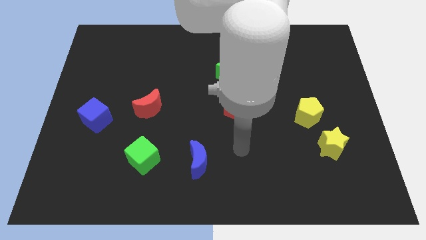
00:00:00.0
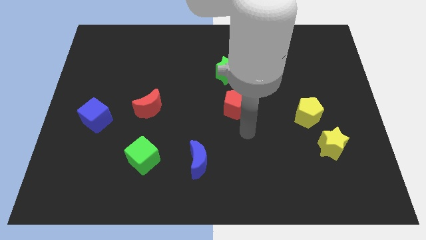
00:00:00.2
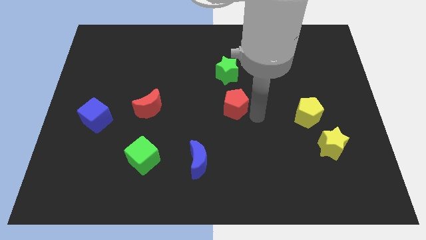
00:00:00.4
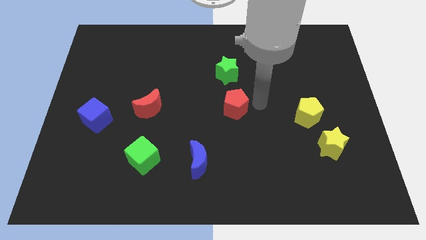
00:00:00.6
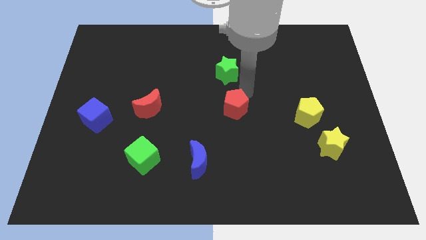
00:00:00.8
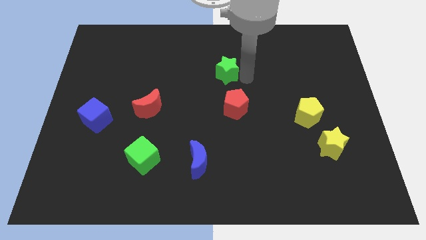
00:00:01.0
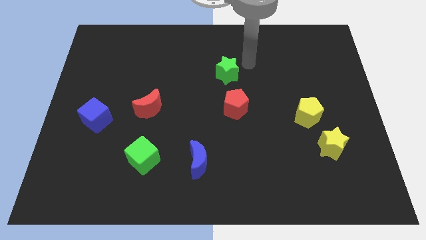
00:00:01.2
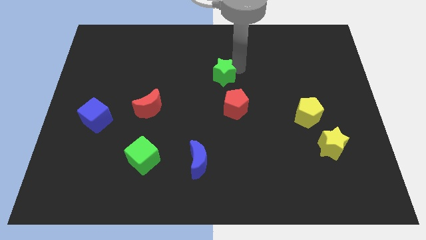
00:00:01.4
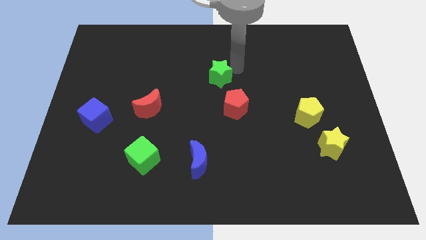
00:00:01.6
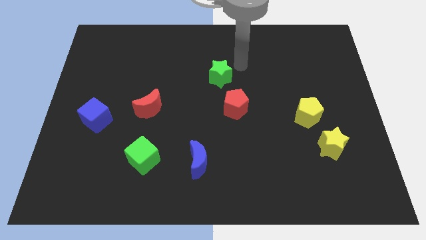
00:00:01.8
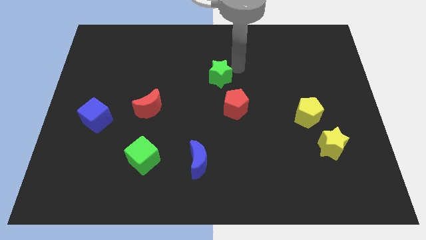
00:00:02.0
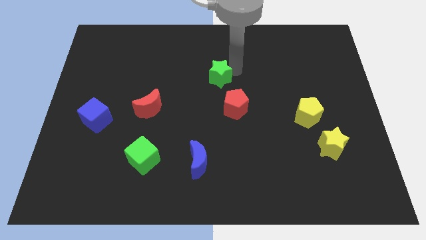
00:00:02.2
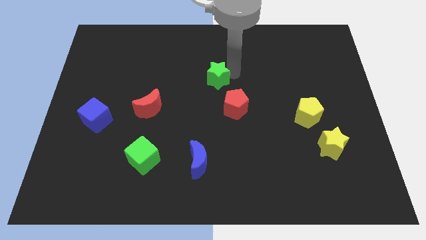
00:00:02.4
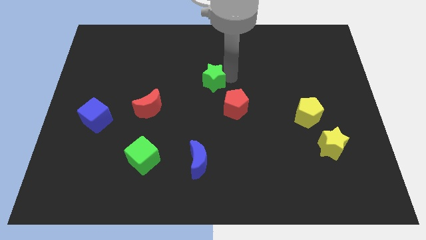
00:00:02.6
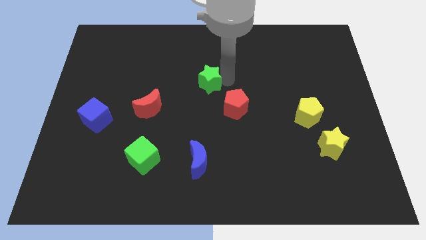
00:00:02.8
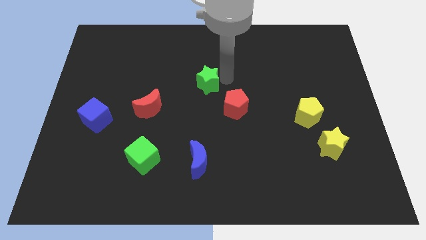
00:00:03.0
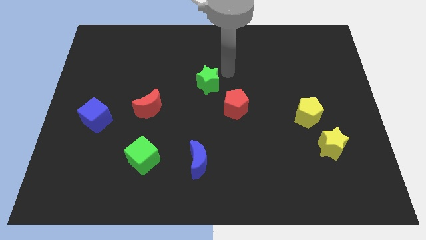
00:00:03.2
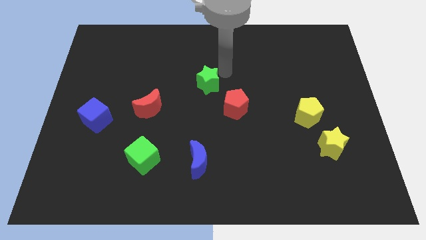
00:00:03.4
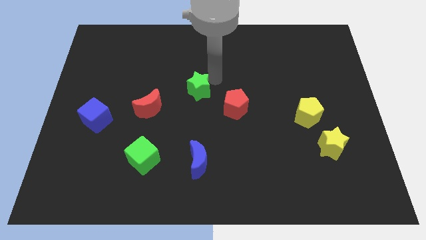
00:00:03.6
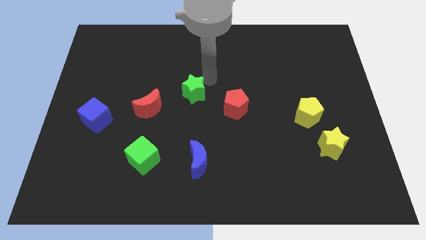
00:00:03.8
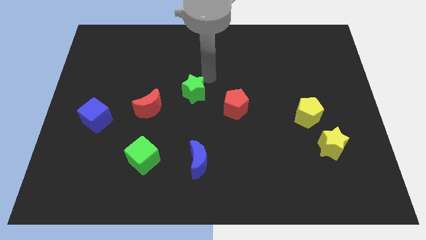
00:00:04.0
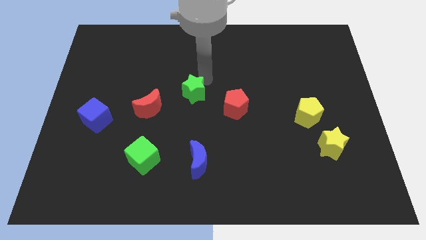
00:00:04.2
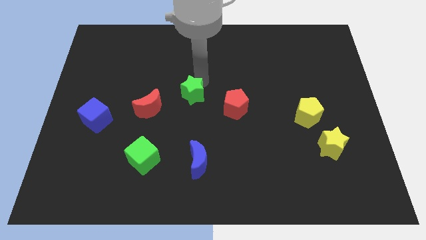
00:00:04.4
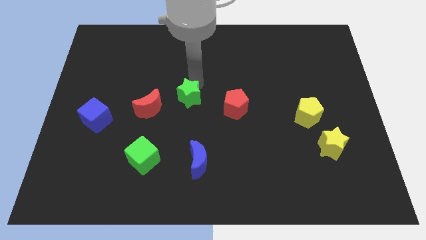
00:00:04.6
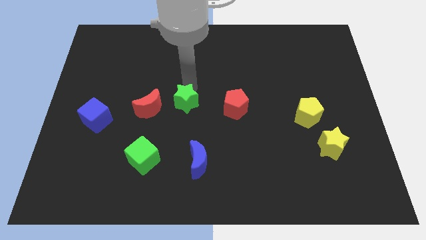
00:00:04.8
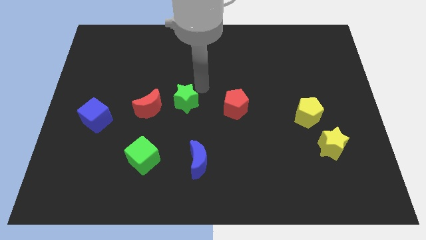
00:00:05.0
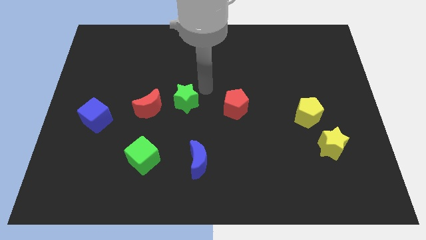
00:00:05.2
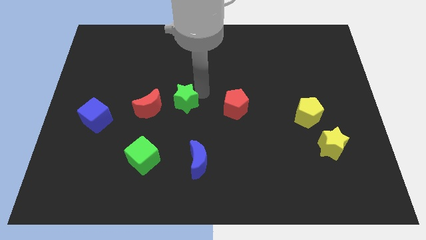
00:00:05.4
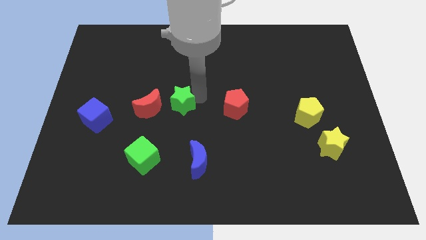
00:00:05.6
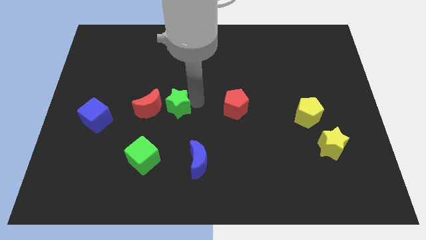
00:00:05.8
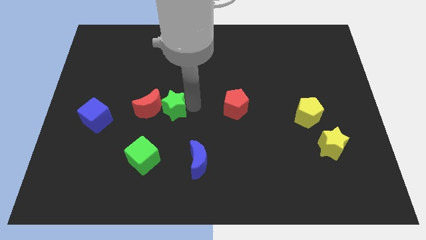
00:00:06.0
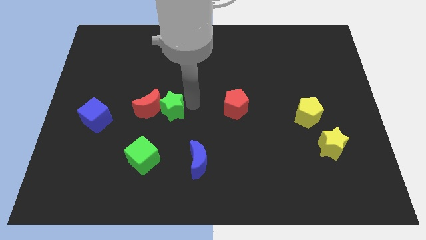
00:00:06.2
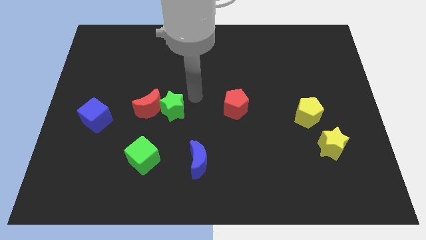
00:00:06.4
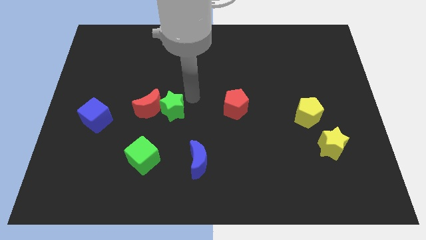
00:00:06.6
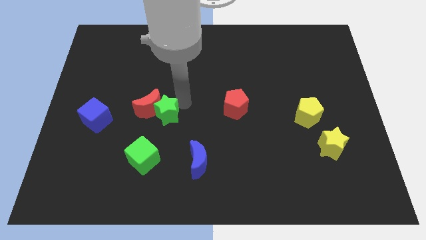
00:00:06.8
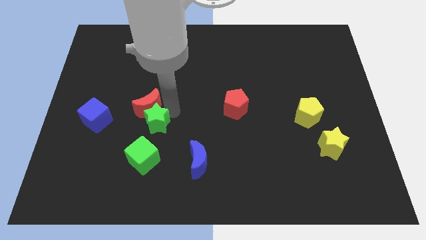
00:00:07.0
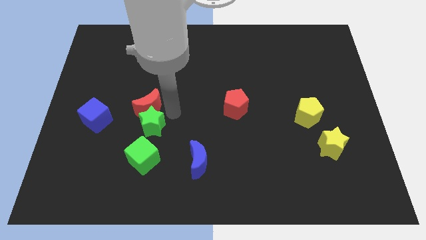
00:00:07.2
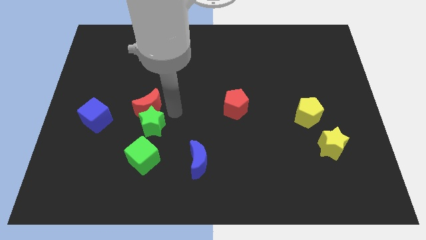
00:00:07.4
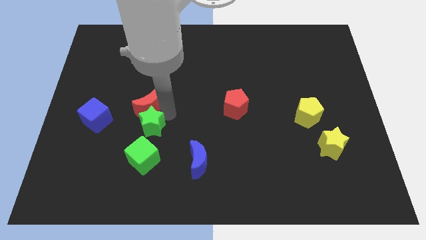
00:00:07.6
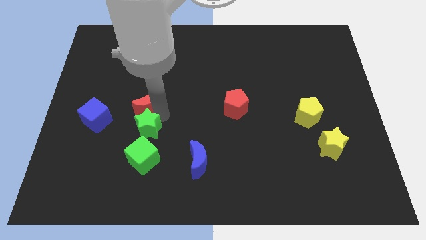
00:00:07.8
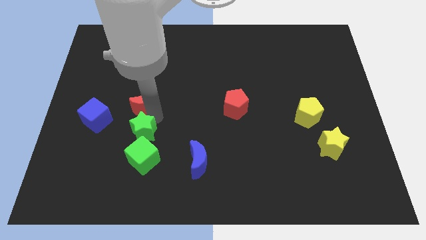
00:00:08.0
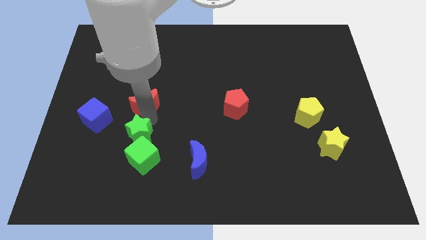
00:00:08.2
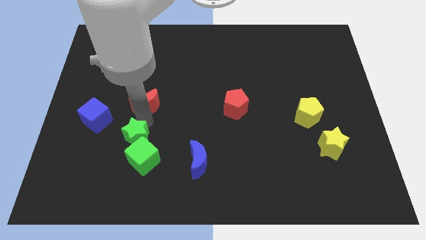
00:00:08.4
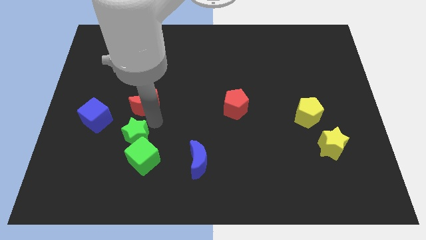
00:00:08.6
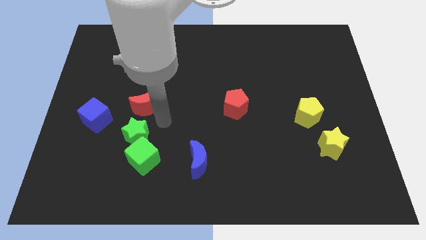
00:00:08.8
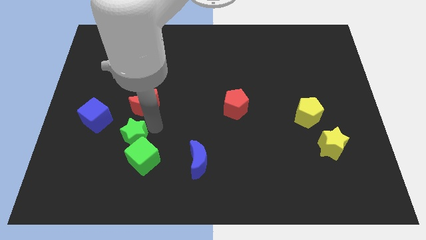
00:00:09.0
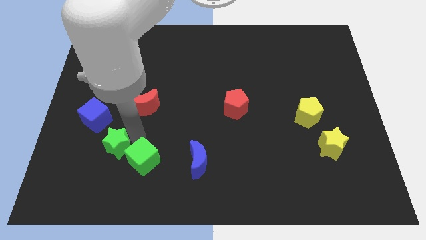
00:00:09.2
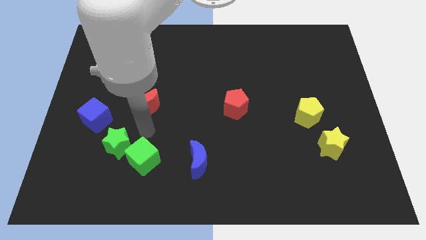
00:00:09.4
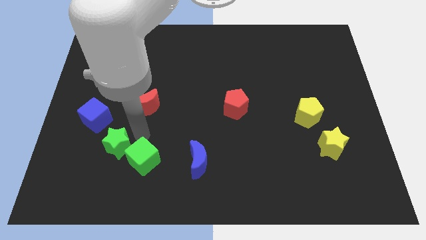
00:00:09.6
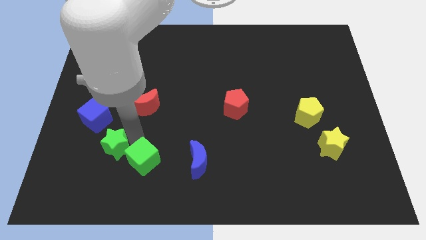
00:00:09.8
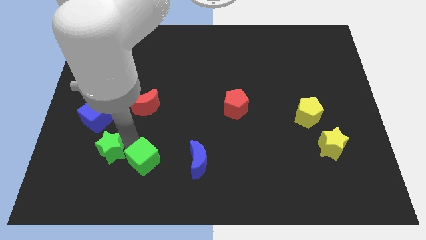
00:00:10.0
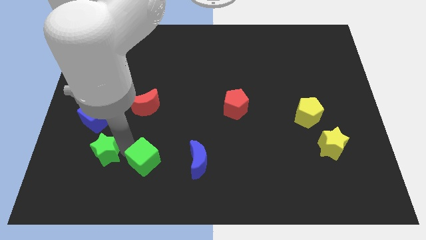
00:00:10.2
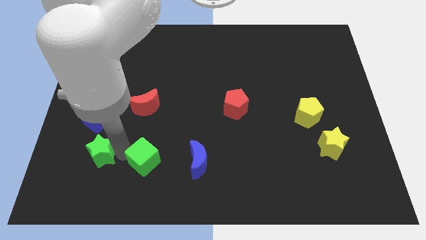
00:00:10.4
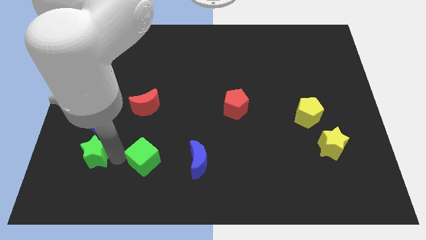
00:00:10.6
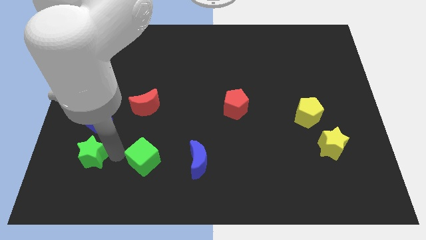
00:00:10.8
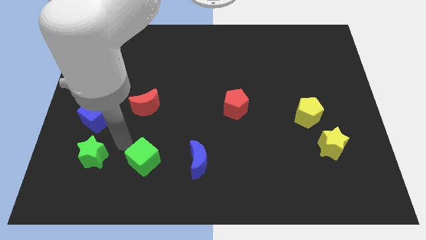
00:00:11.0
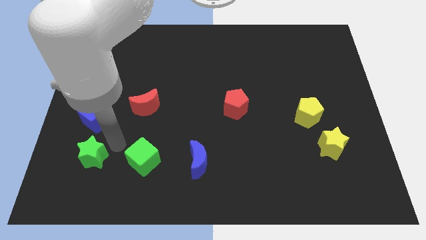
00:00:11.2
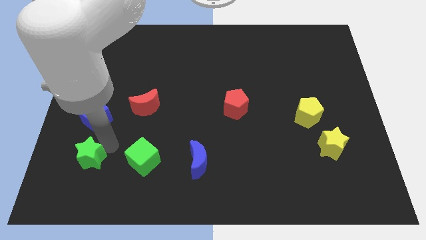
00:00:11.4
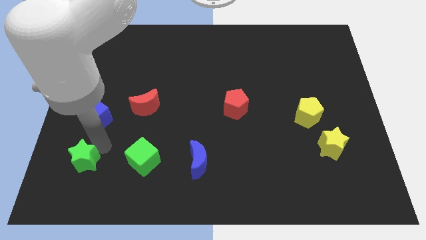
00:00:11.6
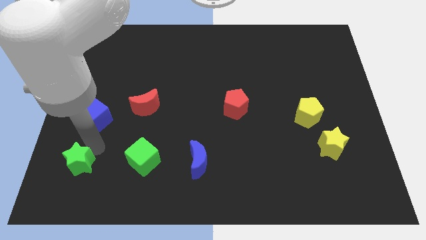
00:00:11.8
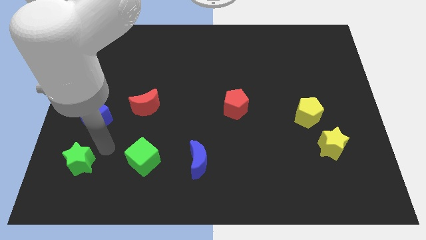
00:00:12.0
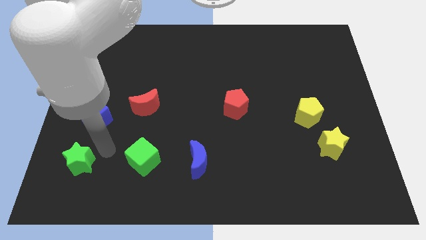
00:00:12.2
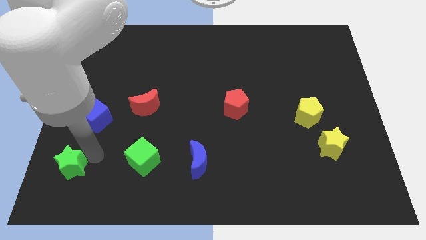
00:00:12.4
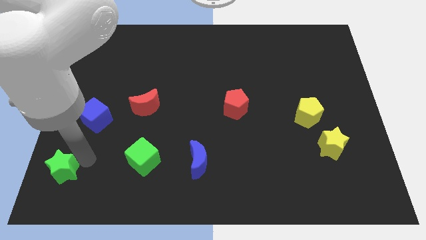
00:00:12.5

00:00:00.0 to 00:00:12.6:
push the green star to the bottom left corner
